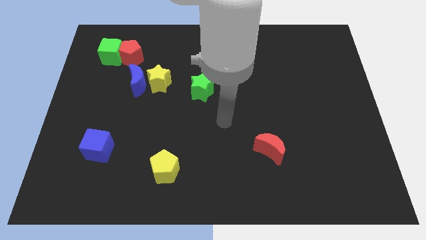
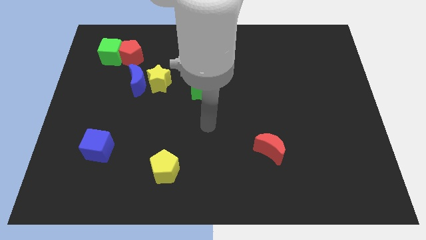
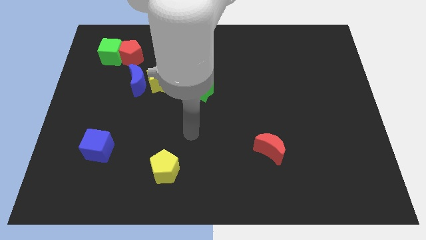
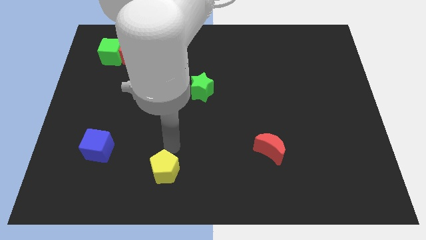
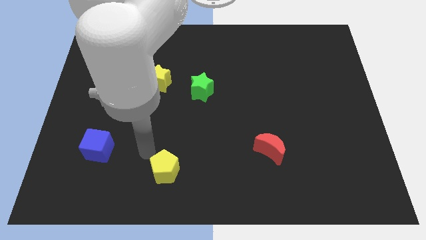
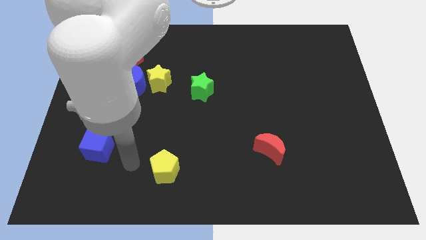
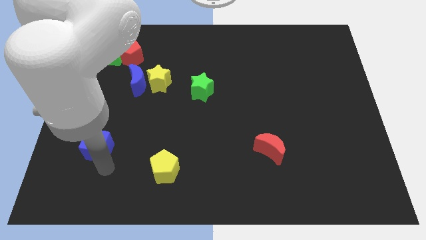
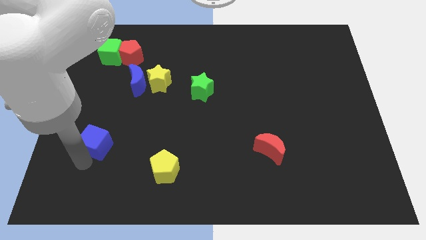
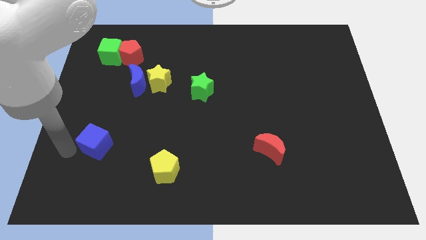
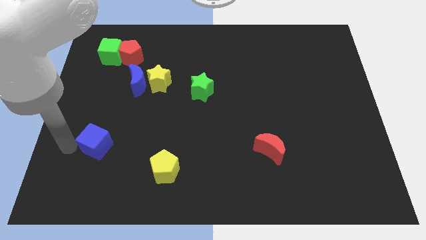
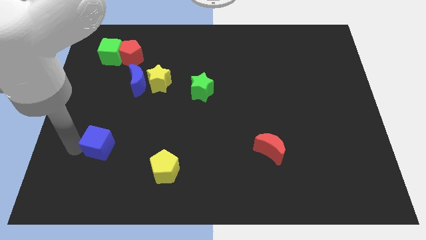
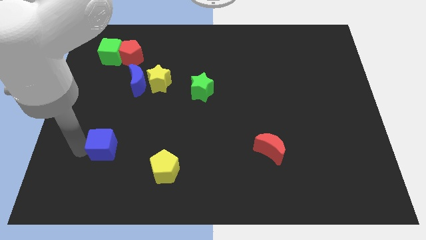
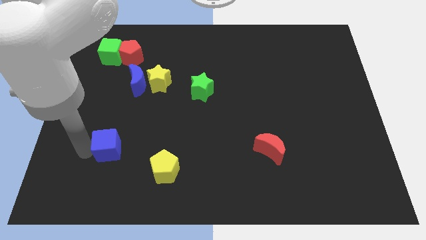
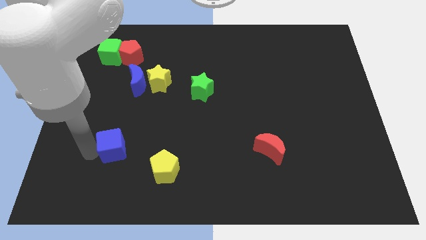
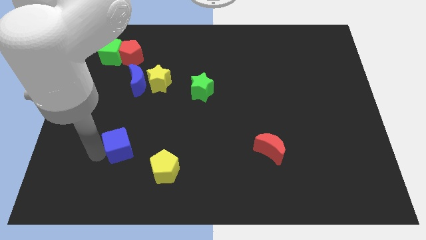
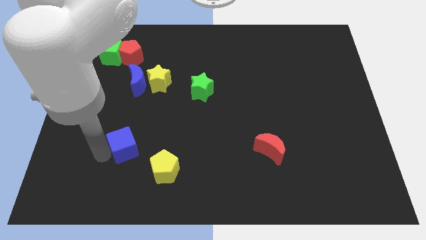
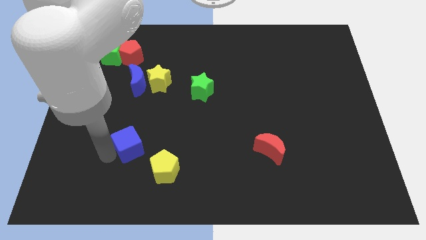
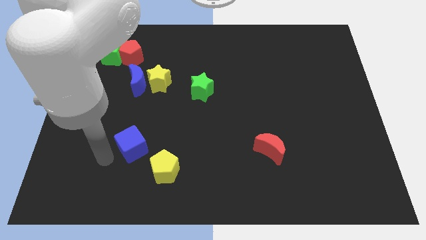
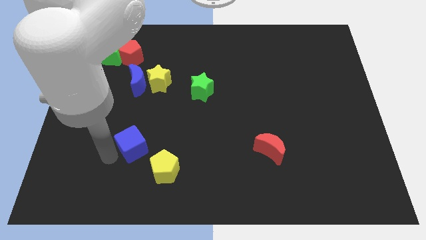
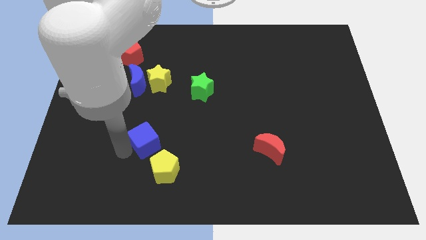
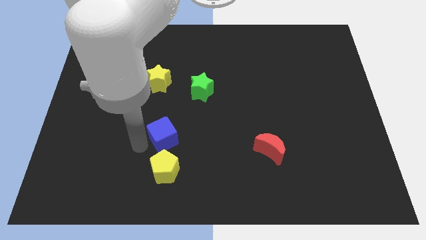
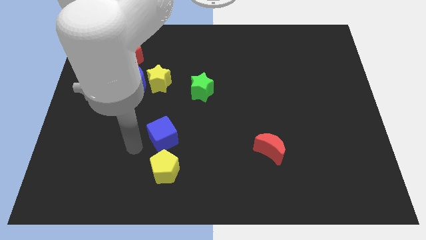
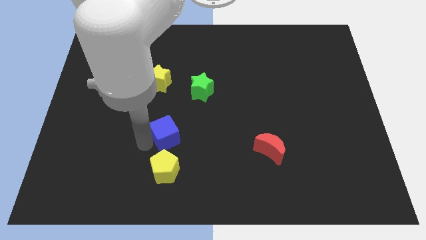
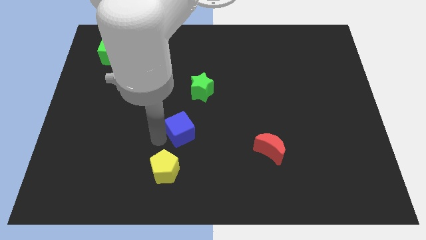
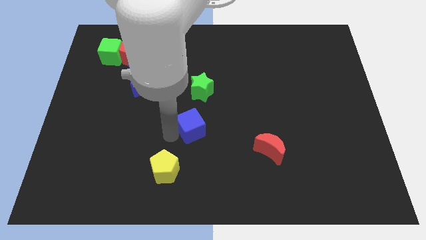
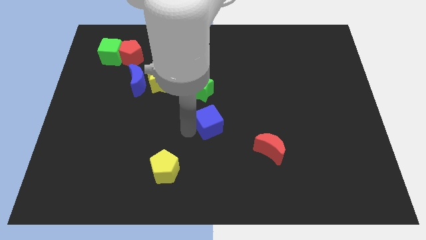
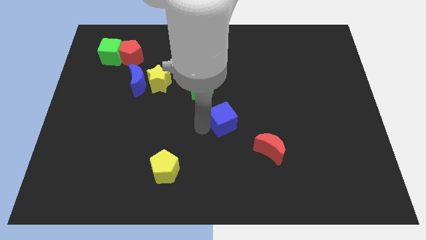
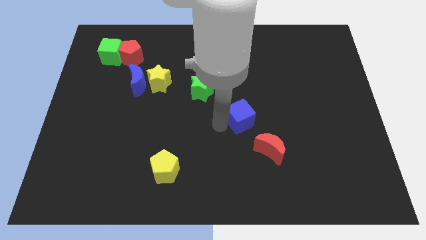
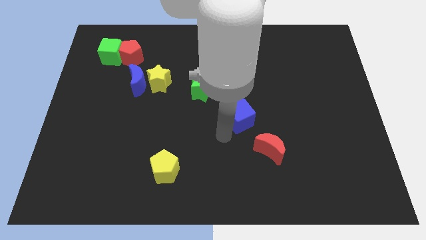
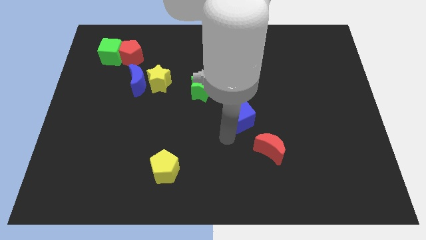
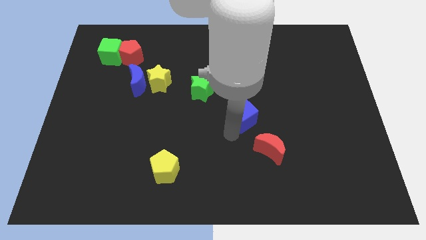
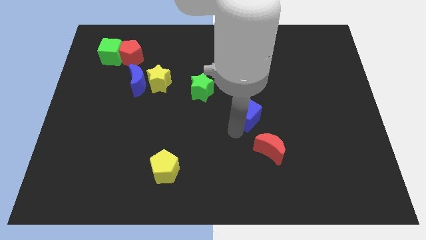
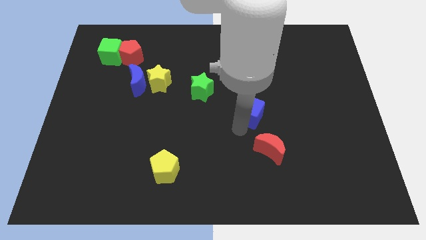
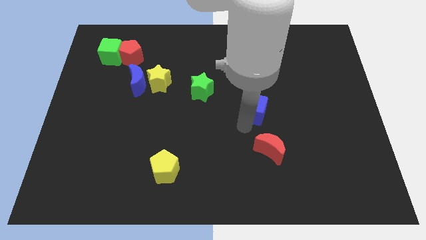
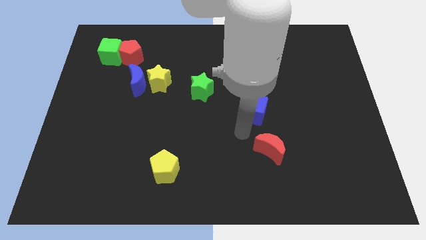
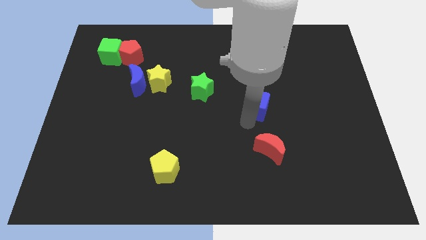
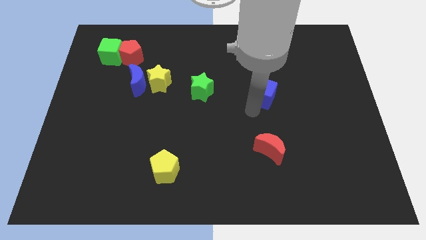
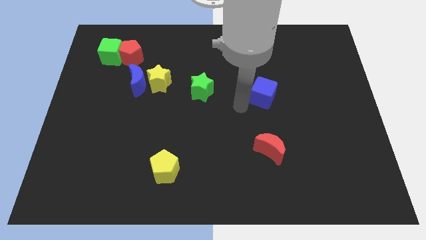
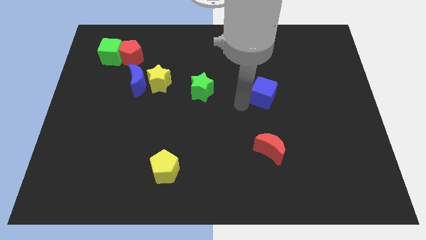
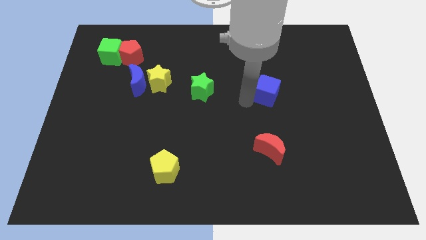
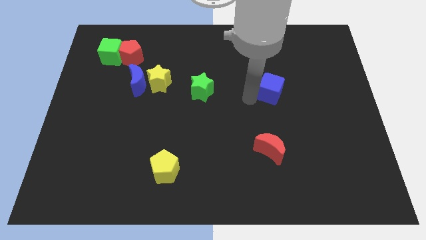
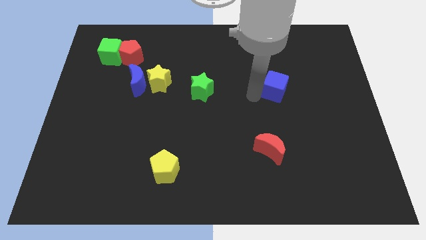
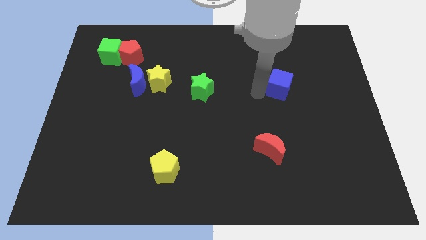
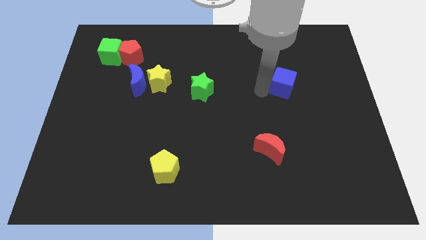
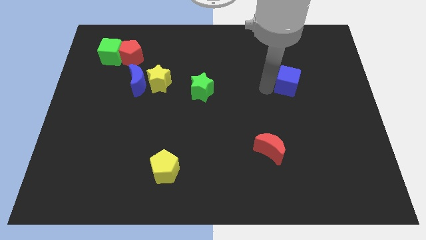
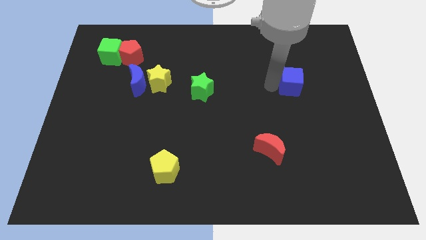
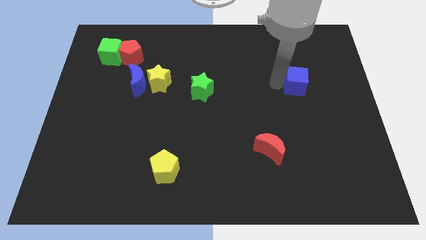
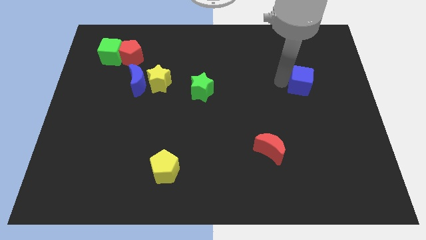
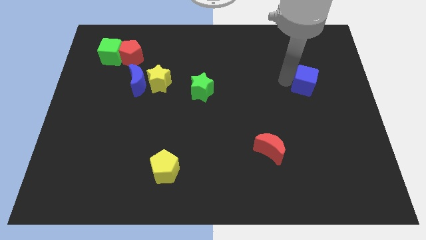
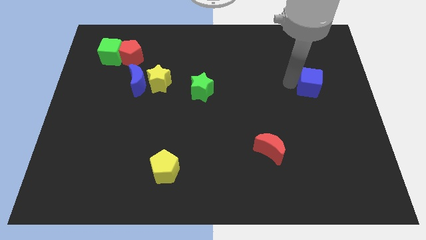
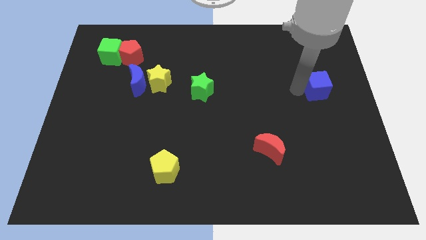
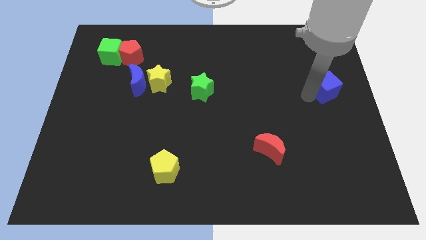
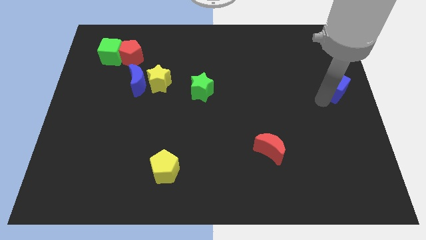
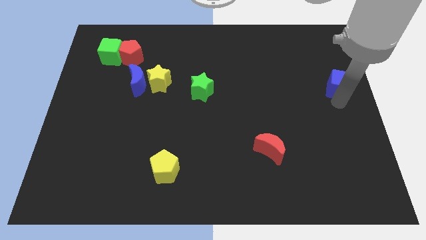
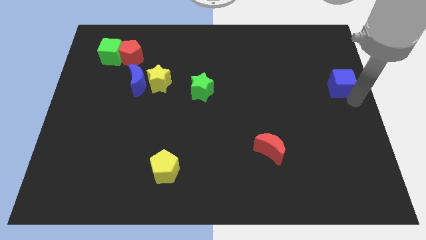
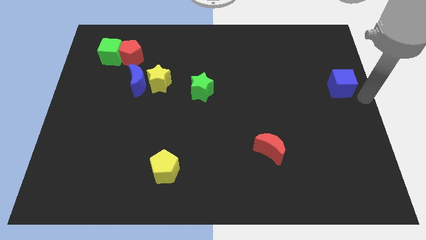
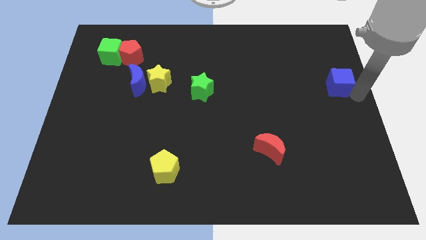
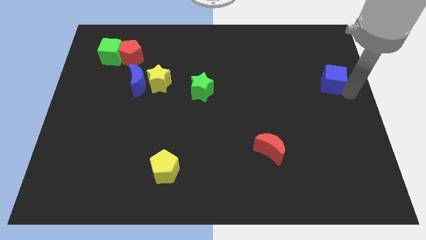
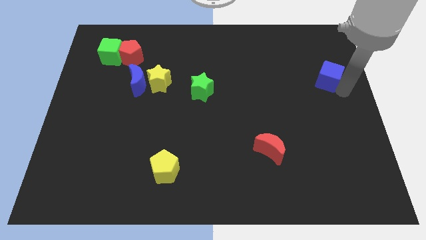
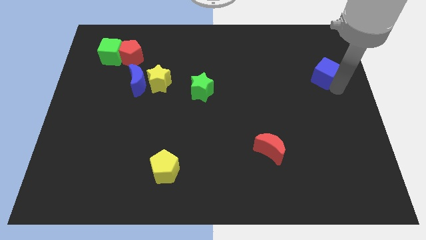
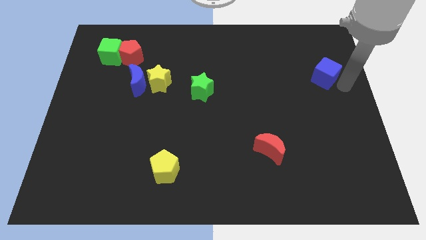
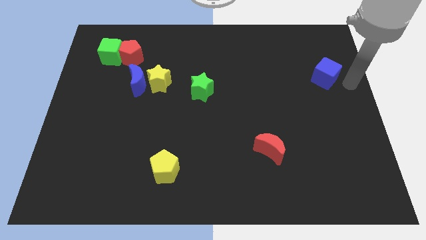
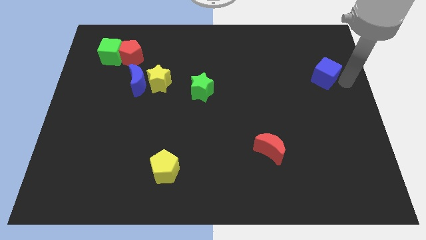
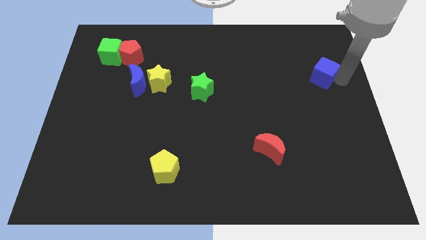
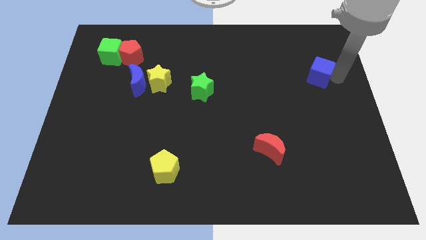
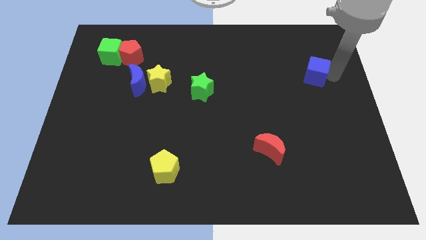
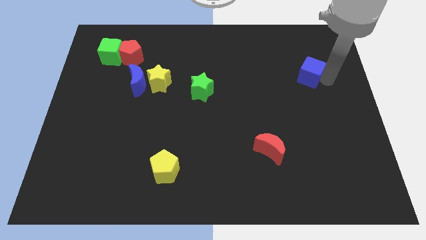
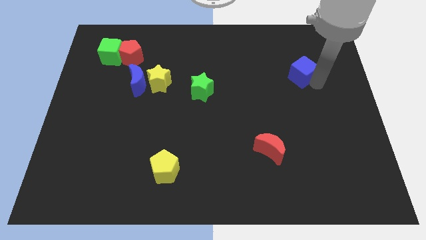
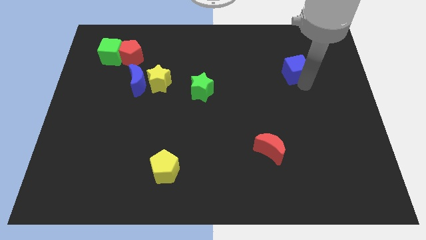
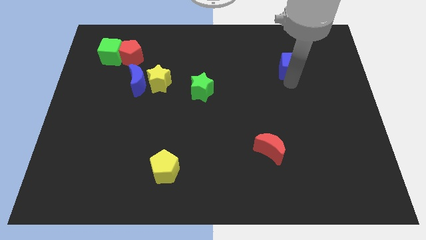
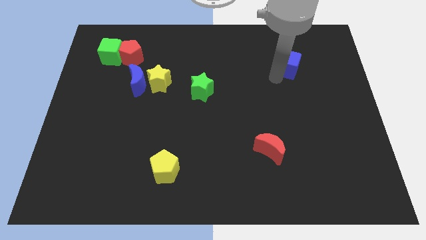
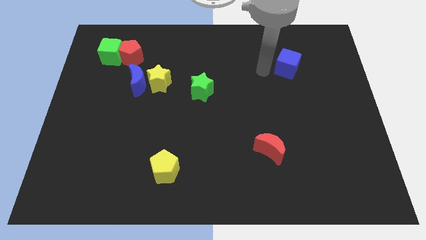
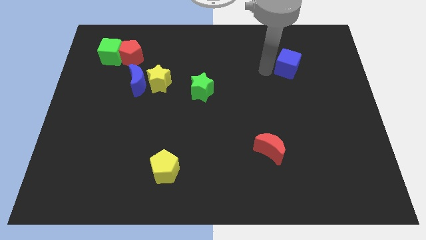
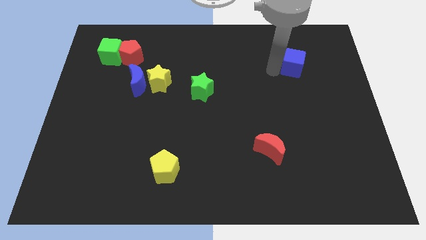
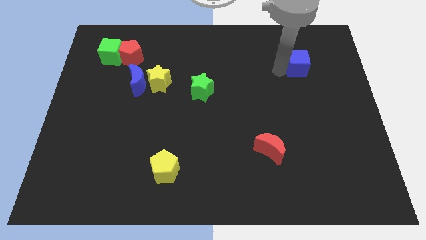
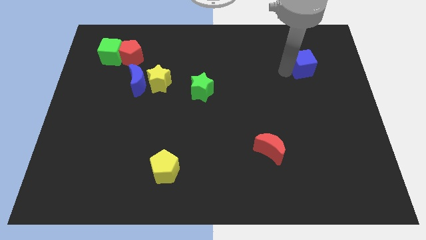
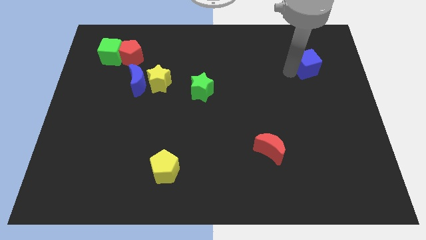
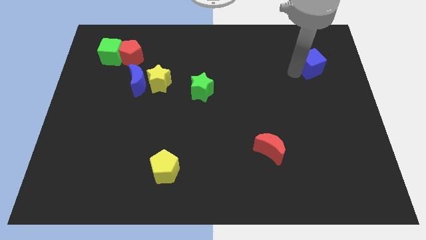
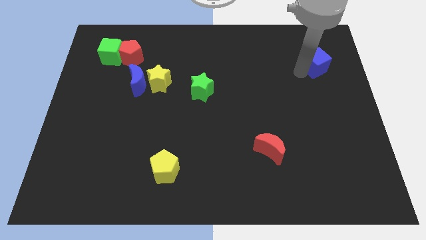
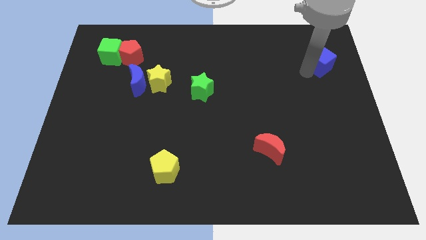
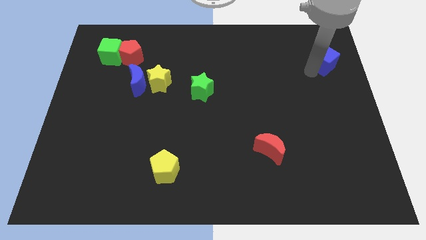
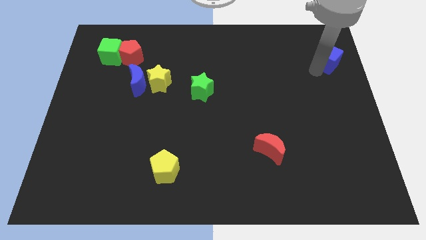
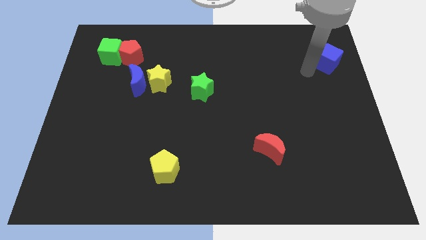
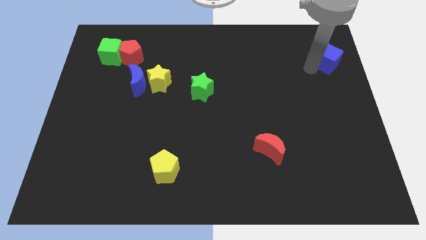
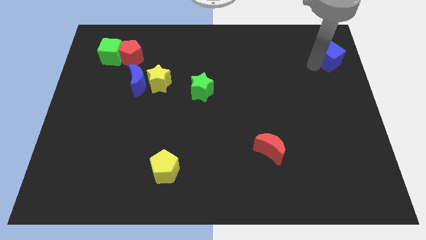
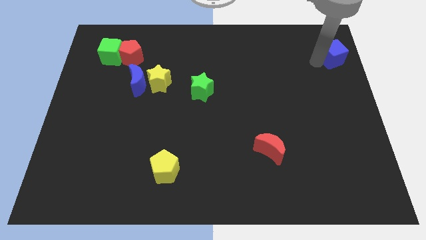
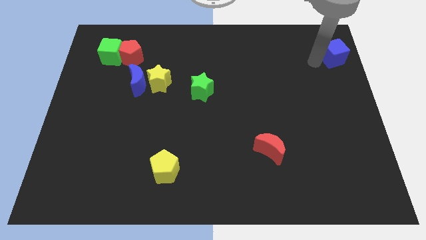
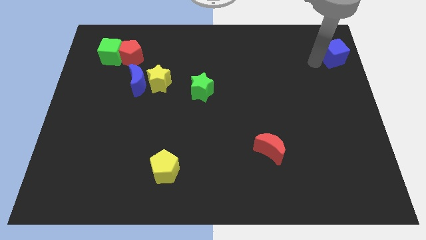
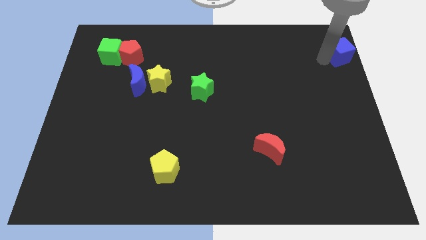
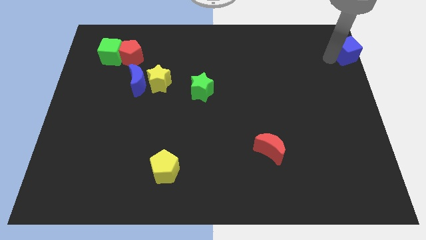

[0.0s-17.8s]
push the blue cube to the top right
